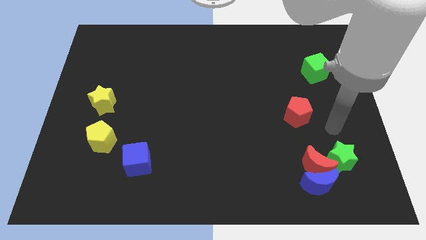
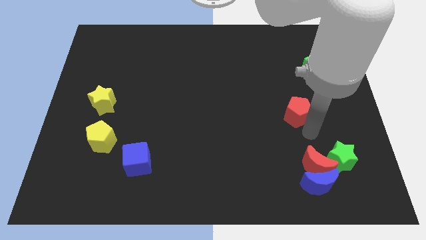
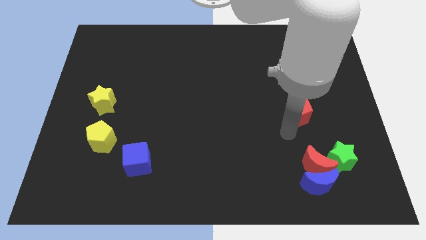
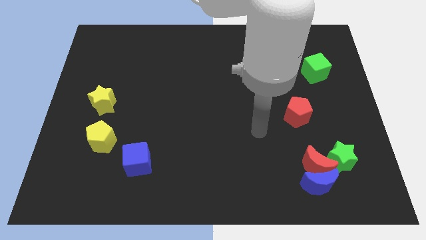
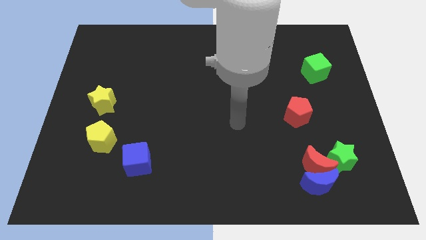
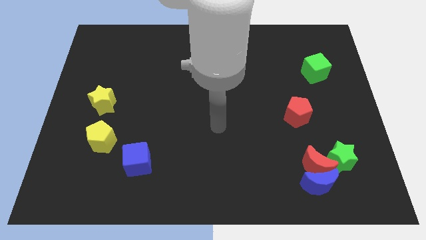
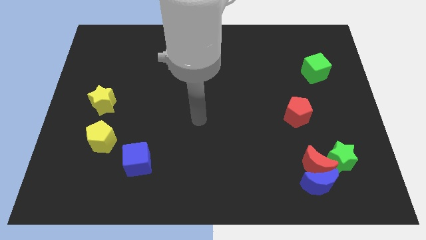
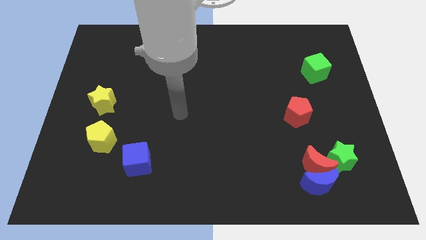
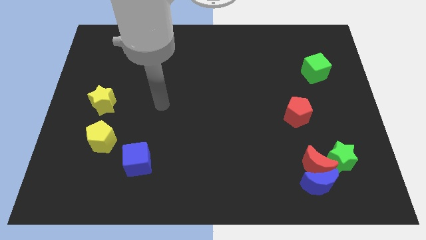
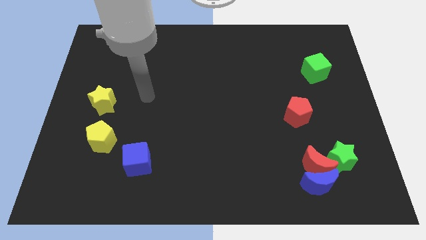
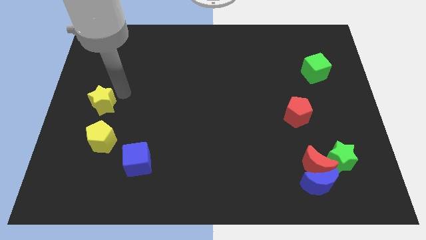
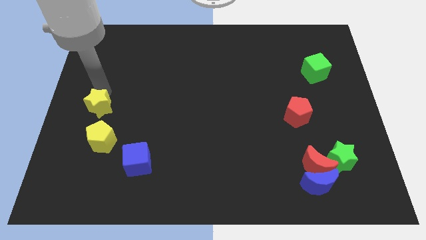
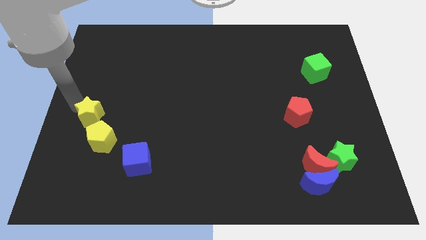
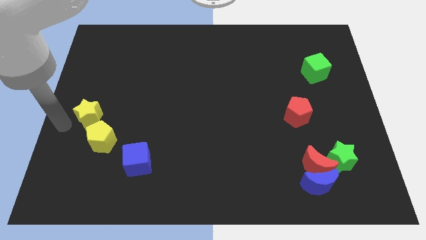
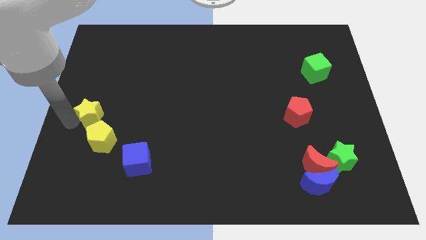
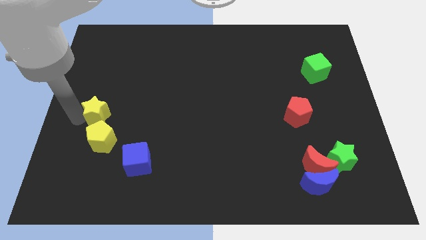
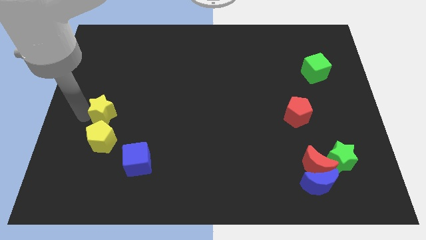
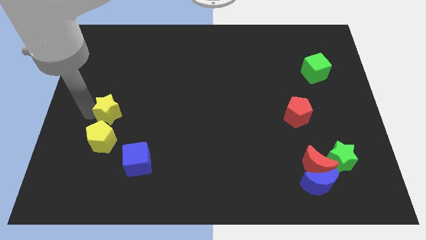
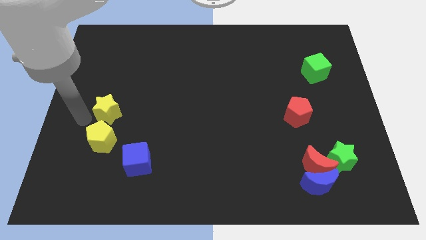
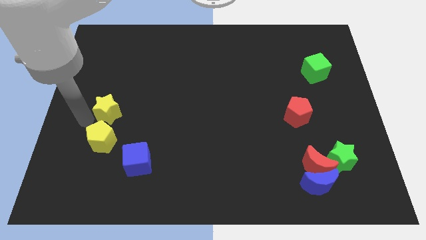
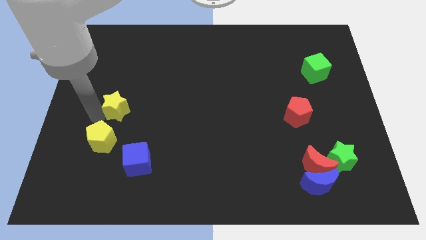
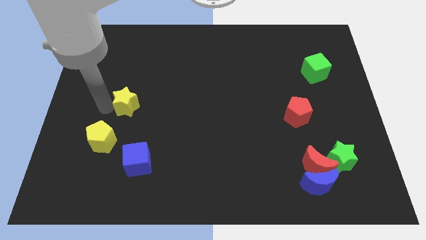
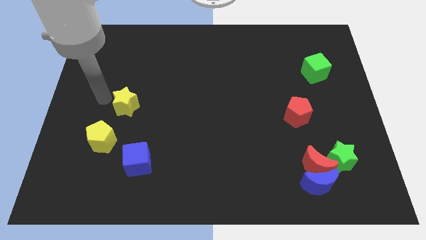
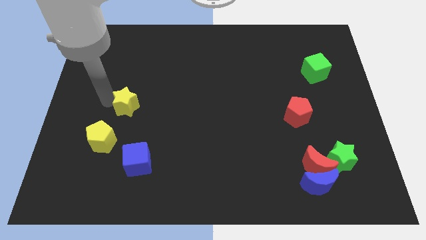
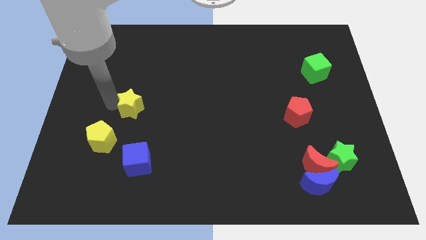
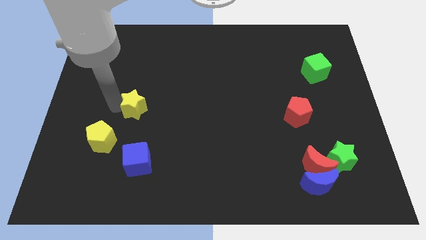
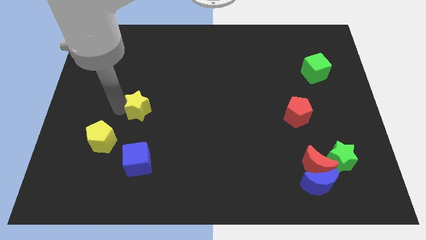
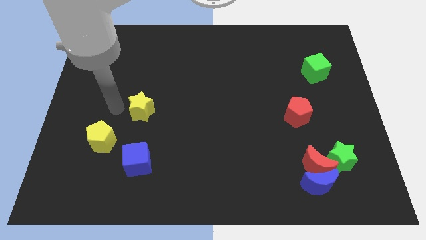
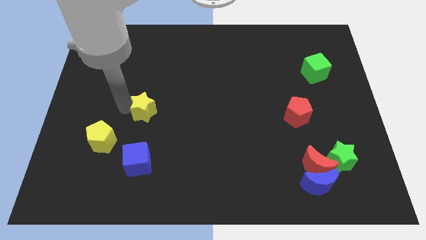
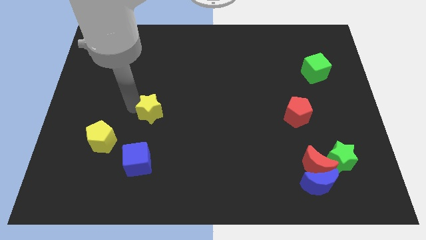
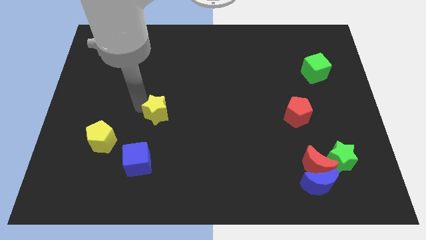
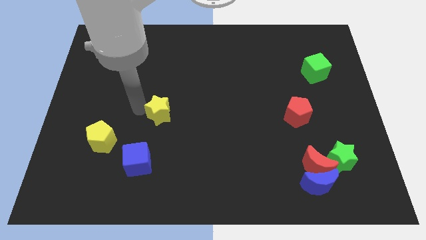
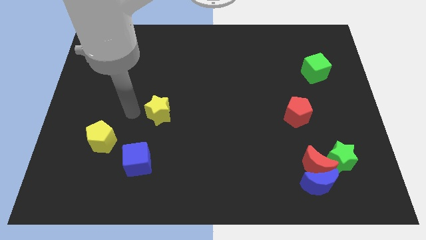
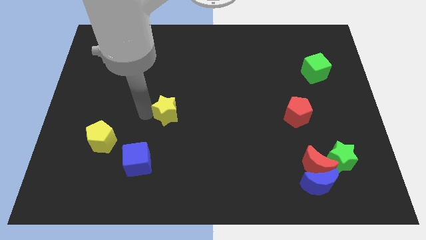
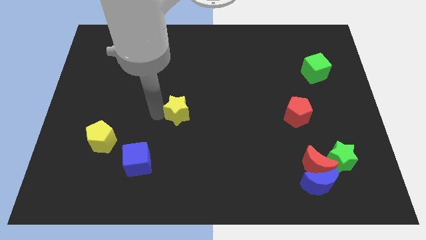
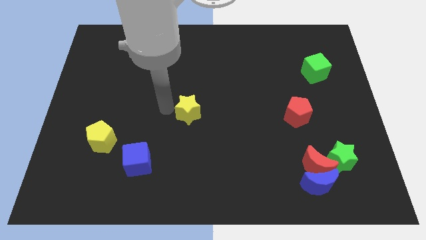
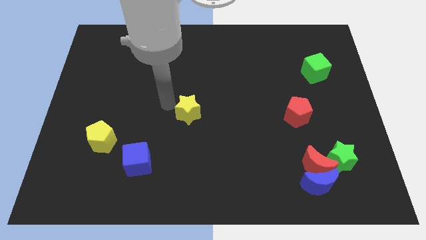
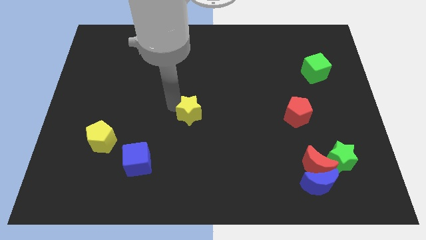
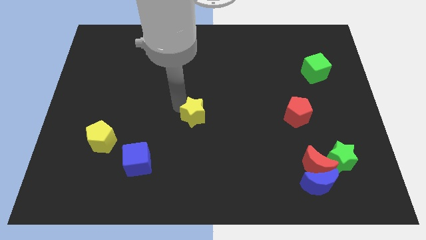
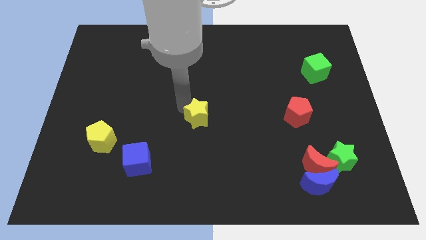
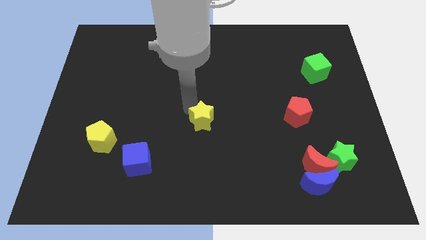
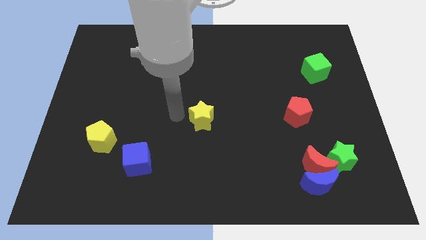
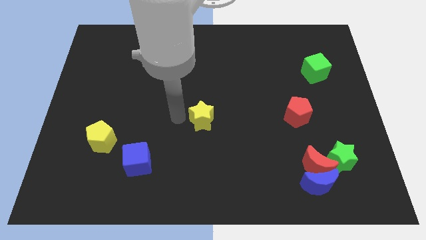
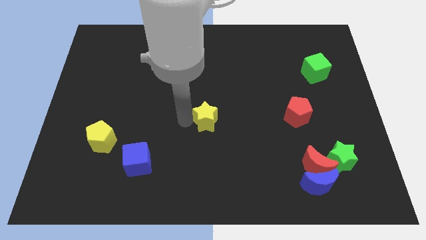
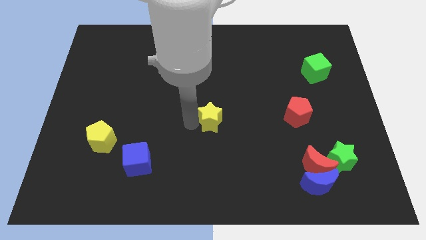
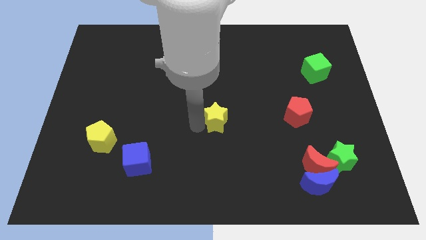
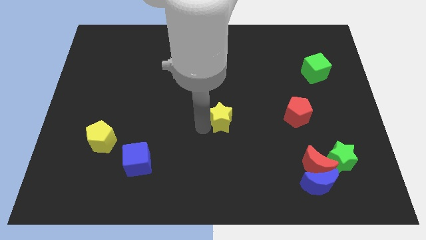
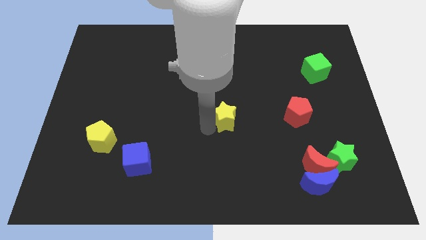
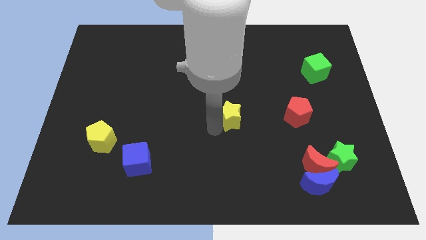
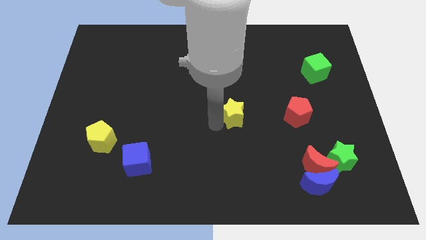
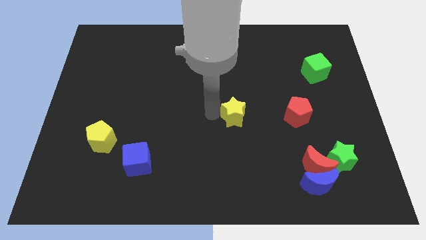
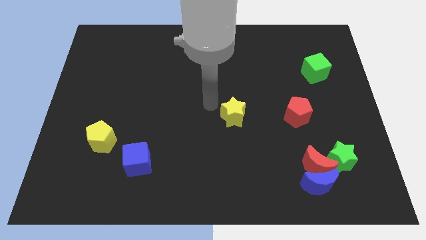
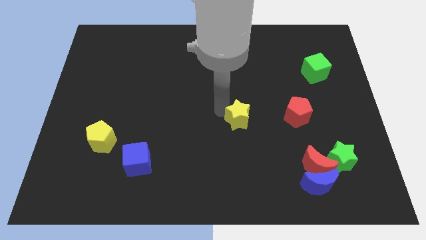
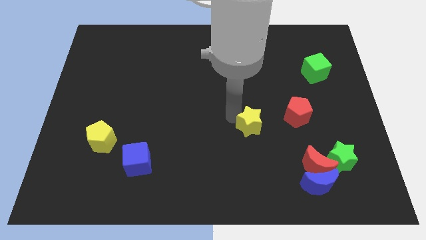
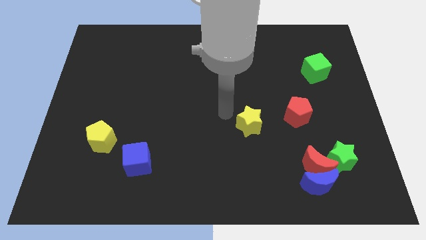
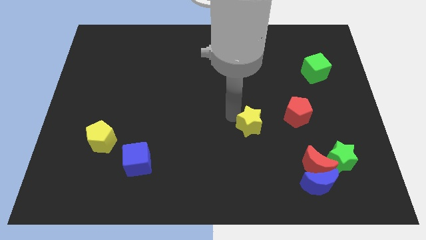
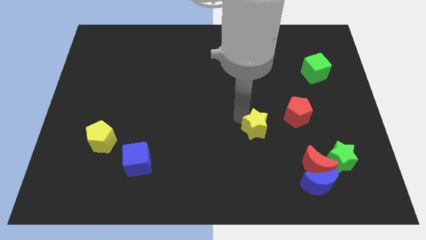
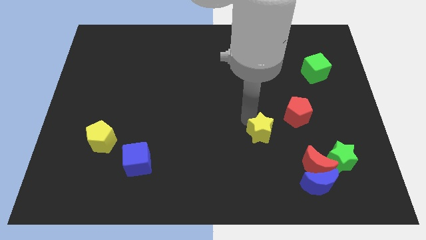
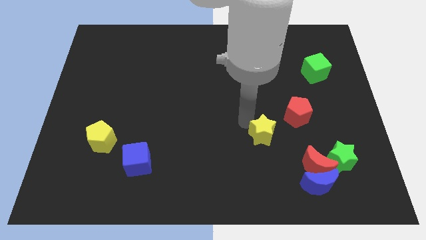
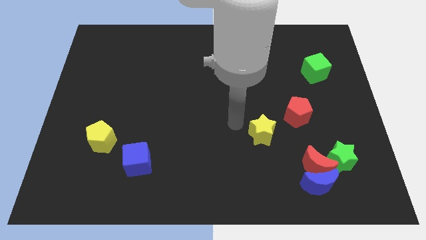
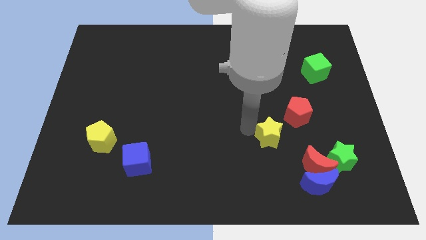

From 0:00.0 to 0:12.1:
move the yellow star to the top left side of the red moon

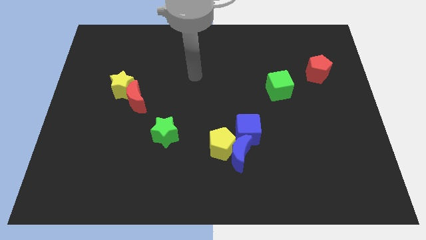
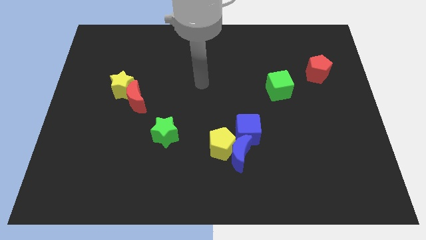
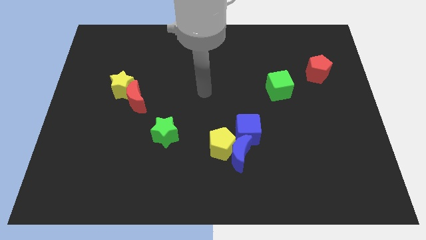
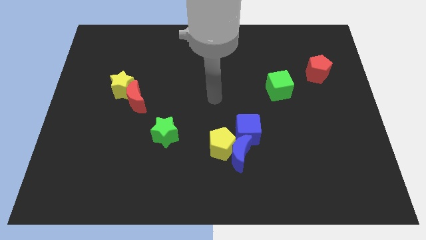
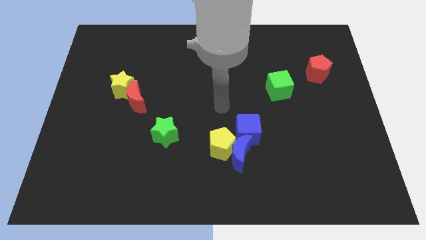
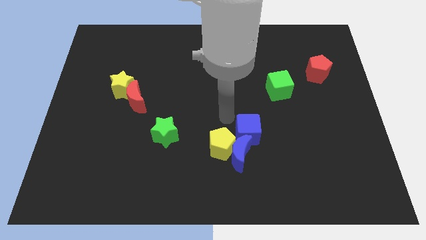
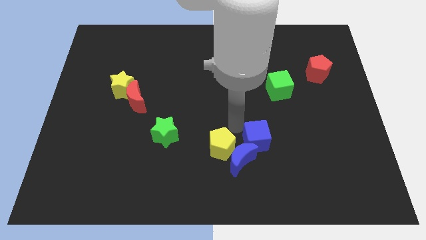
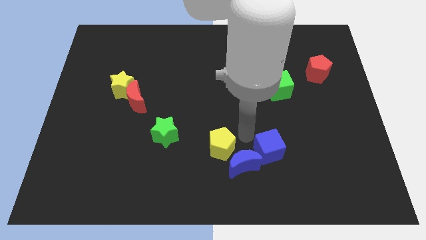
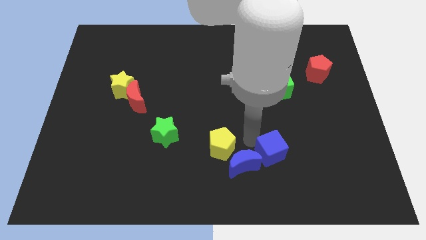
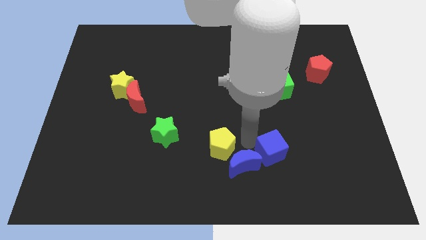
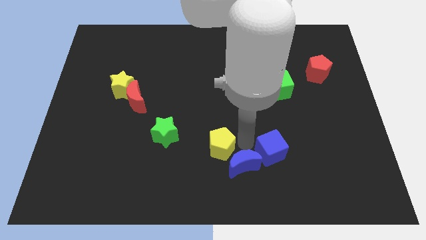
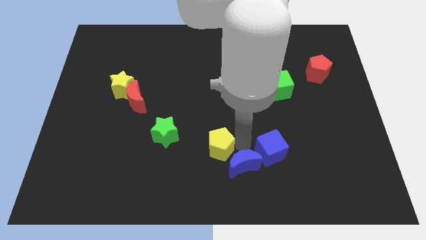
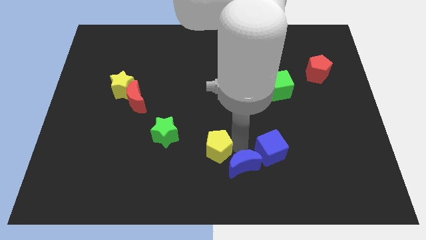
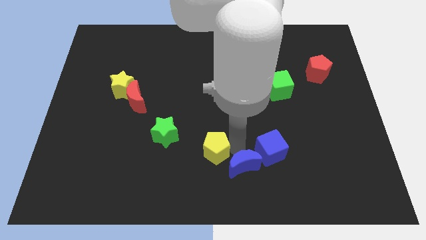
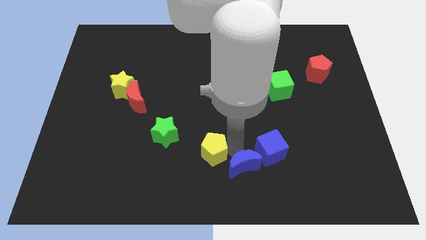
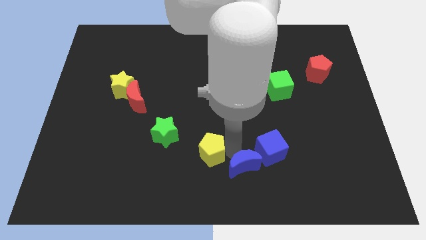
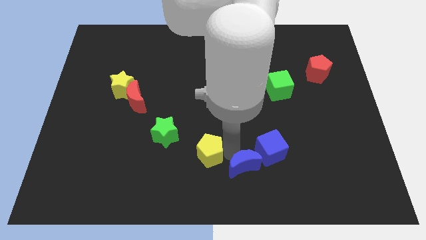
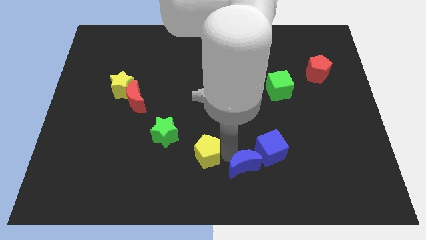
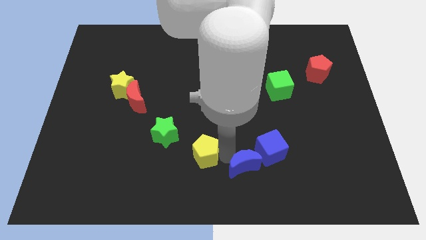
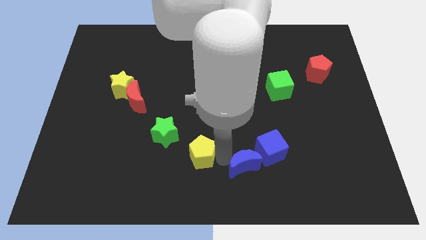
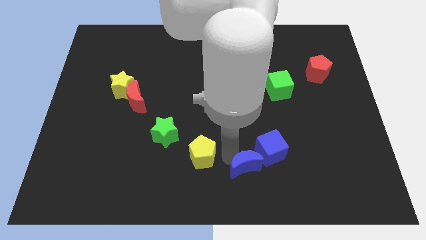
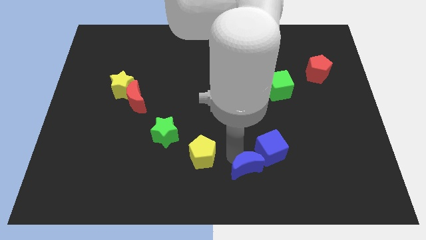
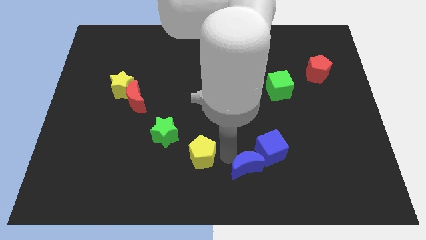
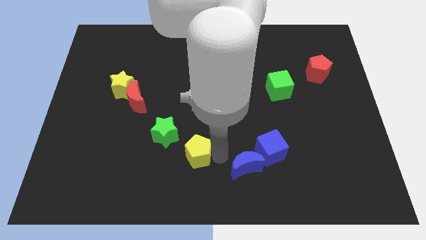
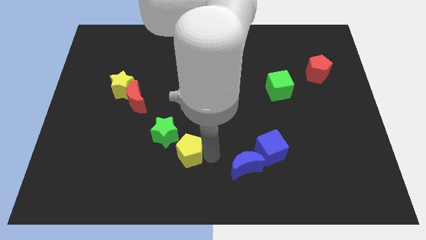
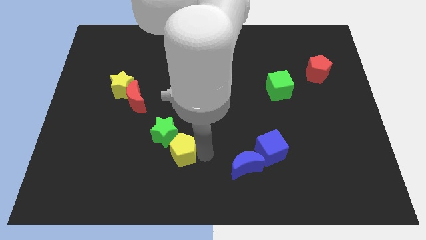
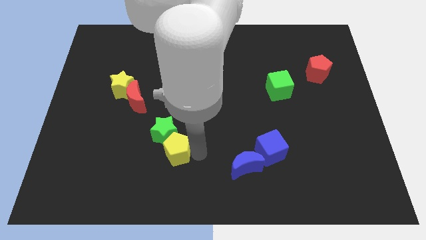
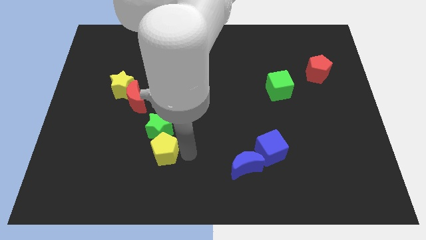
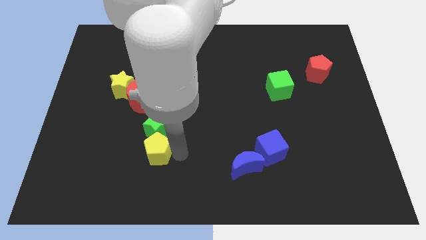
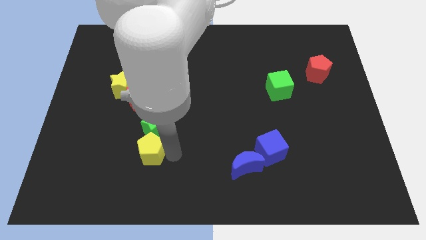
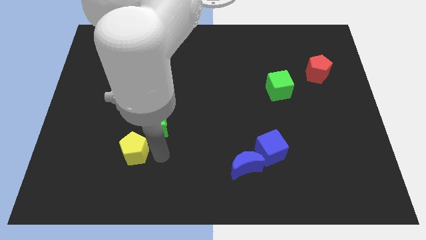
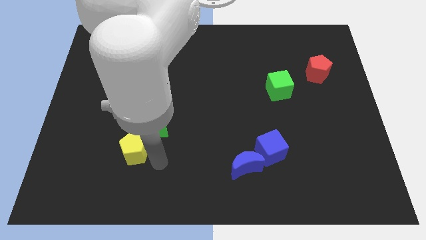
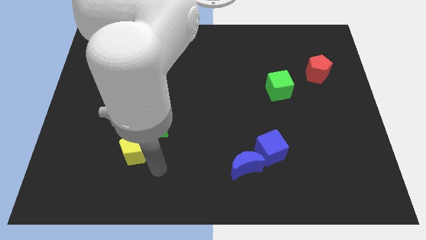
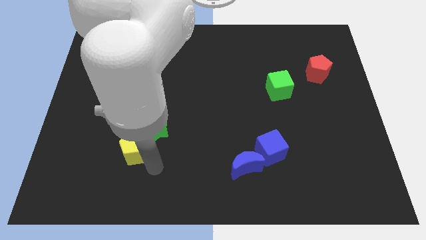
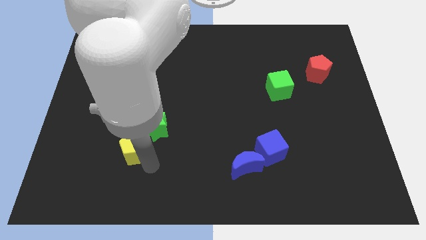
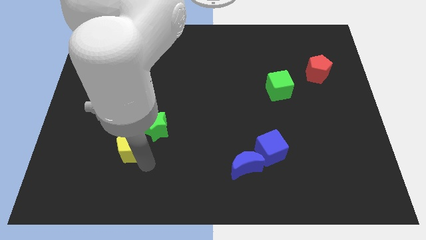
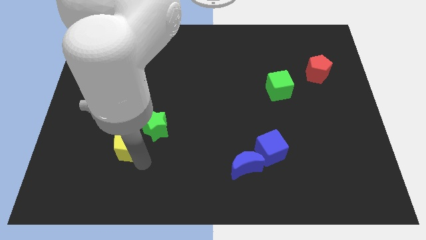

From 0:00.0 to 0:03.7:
put the yellow pentagon left of the green star
